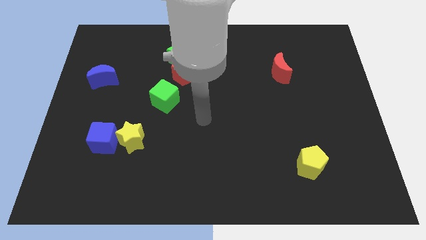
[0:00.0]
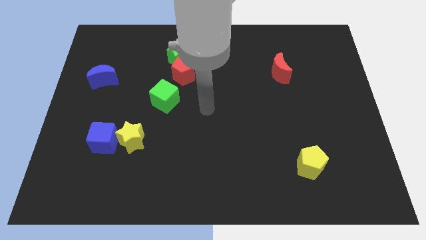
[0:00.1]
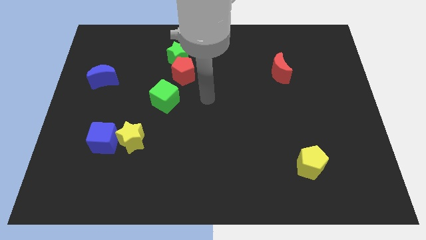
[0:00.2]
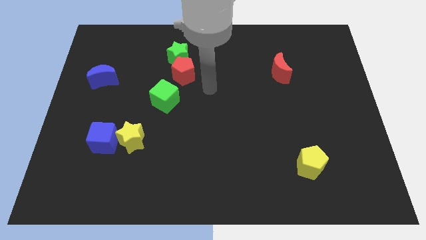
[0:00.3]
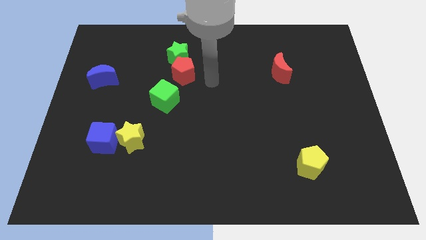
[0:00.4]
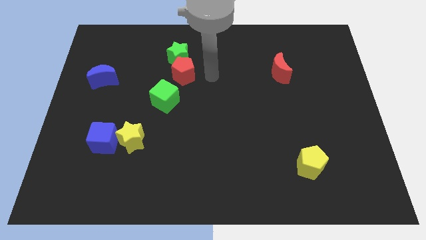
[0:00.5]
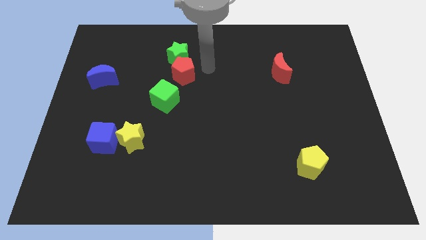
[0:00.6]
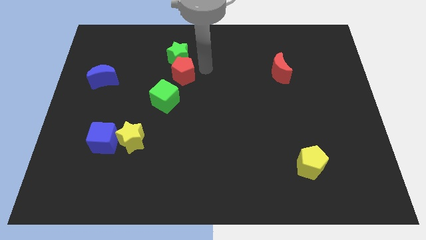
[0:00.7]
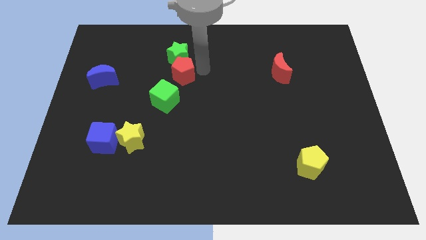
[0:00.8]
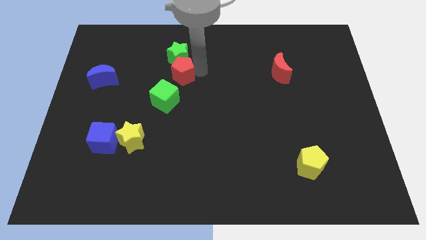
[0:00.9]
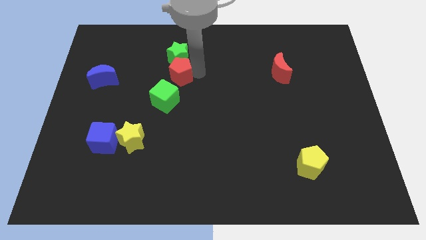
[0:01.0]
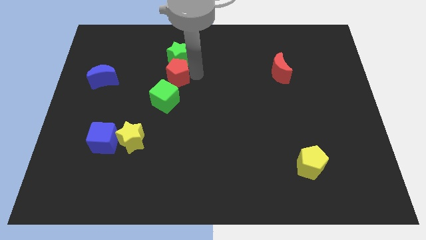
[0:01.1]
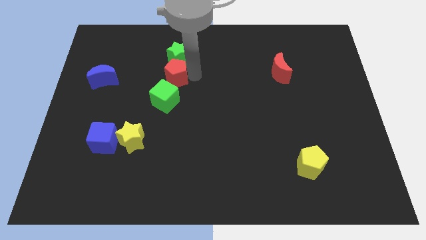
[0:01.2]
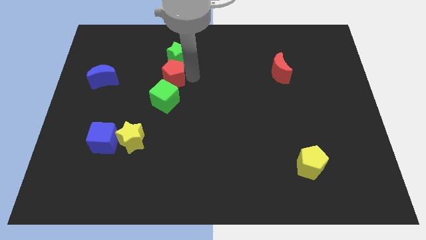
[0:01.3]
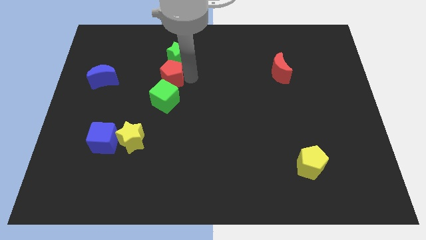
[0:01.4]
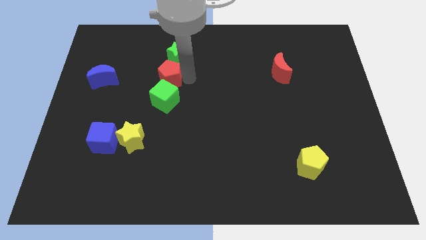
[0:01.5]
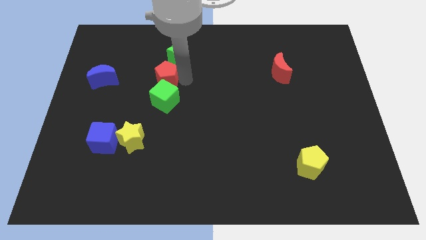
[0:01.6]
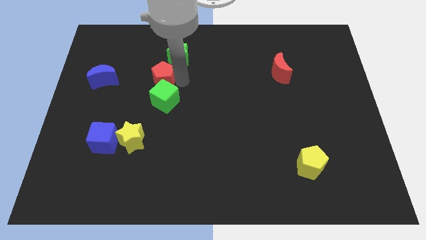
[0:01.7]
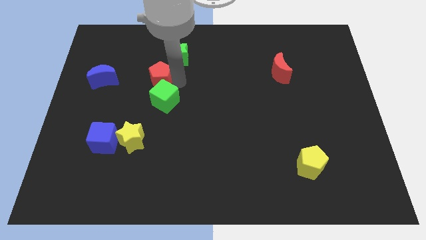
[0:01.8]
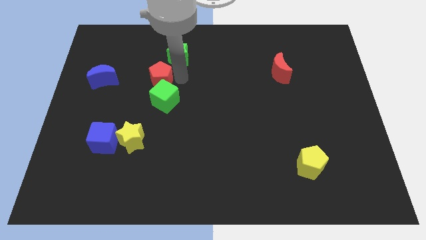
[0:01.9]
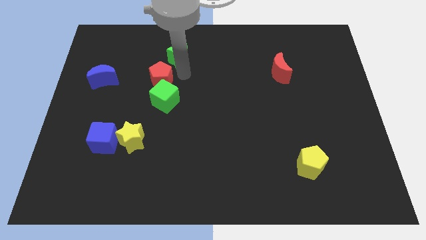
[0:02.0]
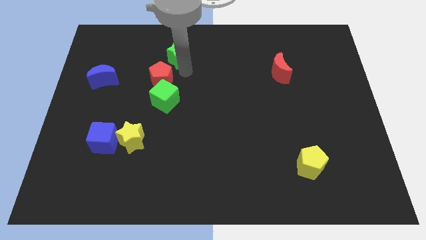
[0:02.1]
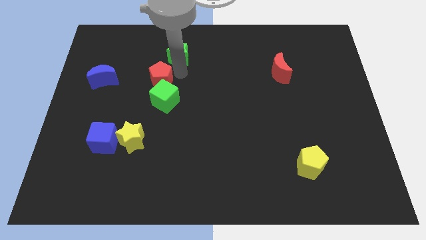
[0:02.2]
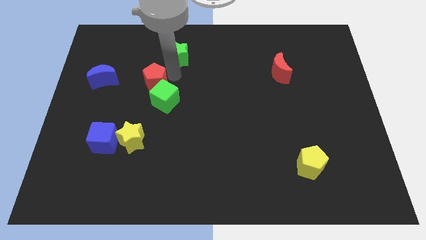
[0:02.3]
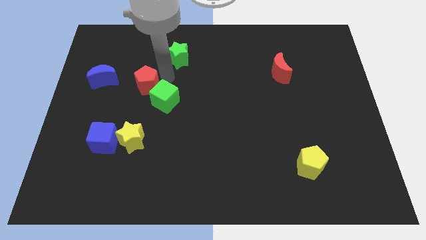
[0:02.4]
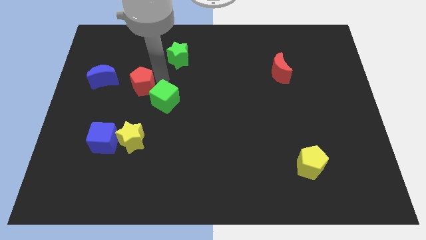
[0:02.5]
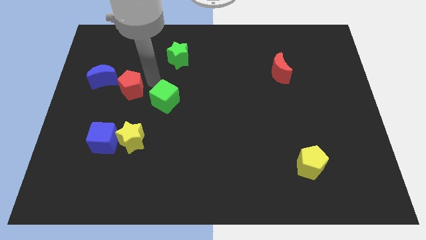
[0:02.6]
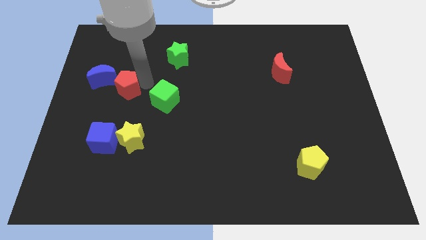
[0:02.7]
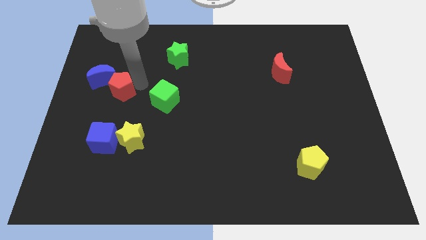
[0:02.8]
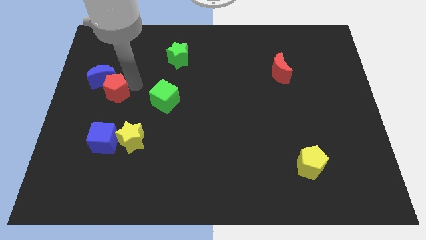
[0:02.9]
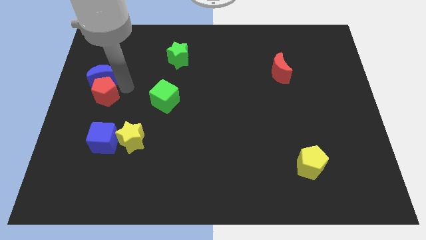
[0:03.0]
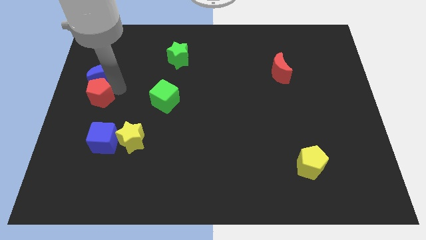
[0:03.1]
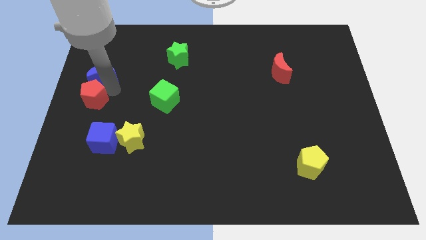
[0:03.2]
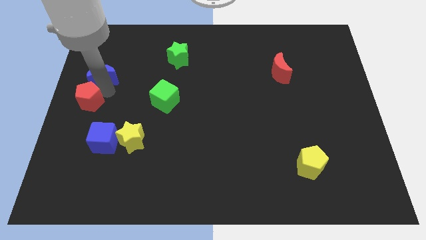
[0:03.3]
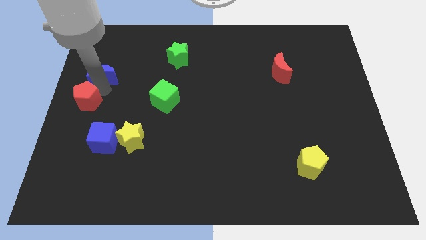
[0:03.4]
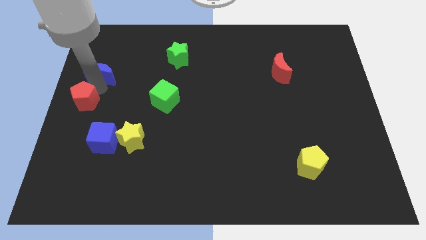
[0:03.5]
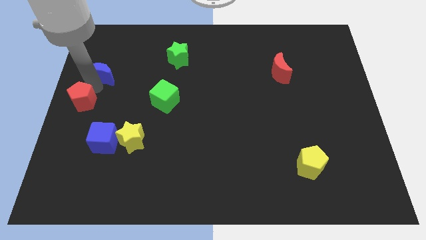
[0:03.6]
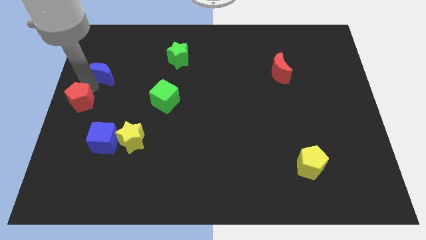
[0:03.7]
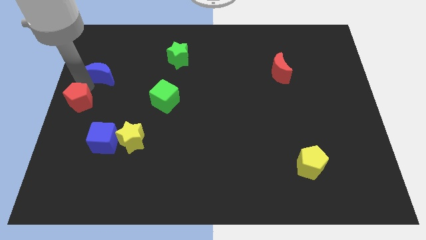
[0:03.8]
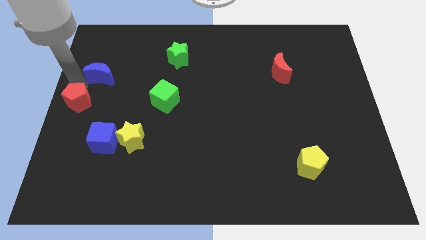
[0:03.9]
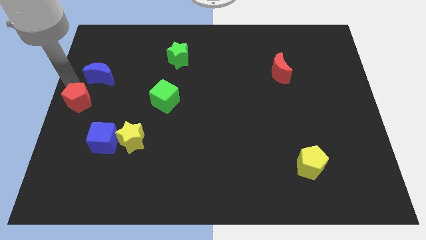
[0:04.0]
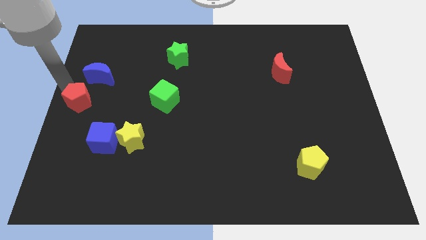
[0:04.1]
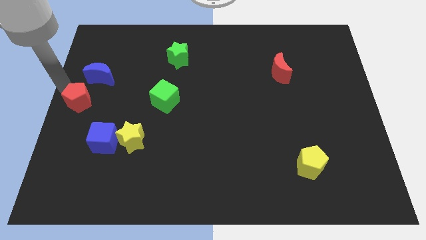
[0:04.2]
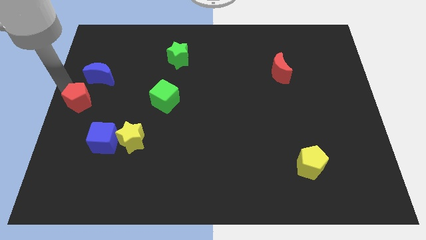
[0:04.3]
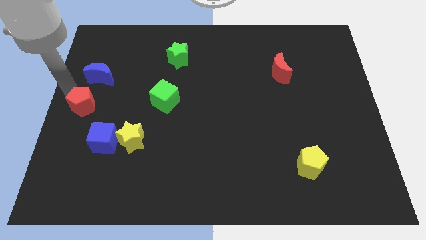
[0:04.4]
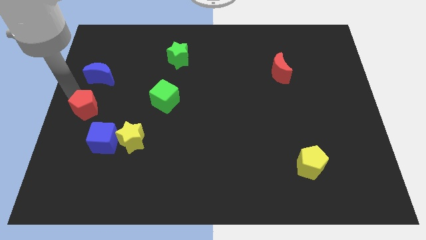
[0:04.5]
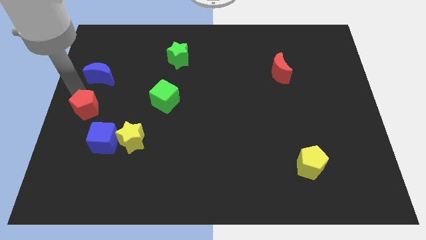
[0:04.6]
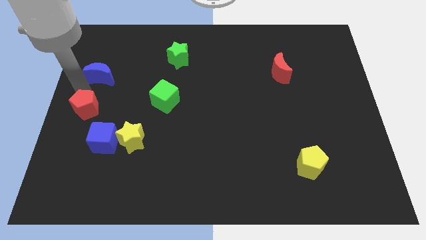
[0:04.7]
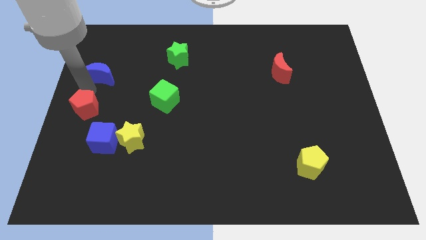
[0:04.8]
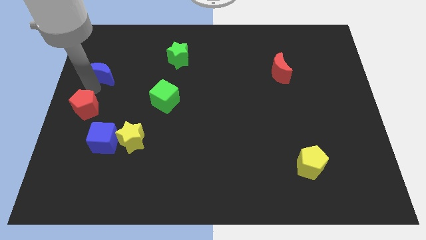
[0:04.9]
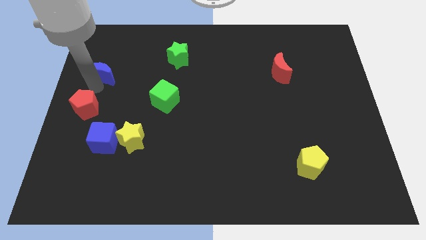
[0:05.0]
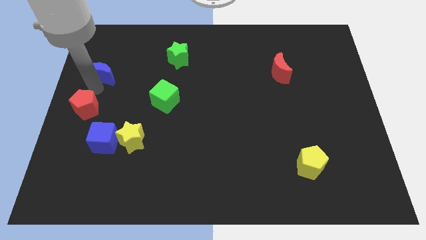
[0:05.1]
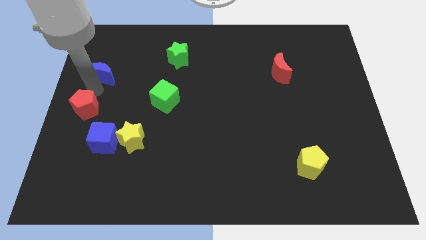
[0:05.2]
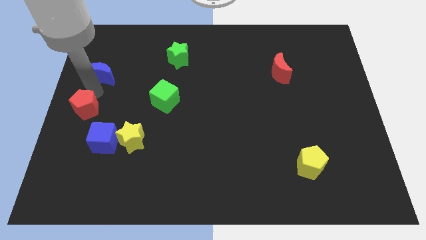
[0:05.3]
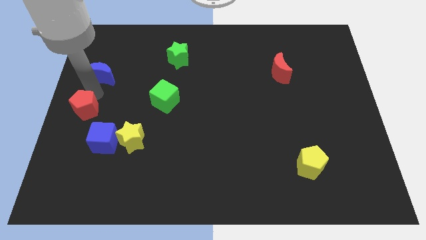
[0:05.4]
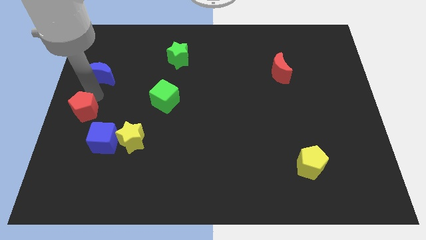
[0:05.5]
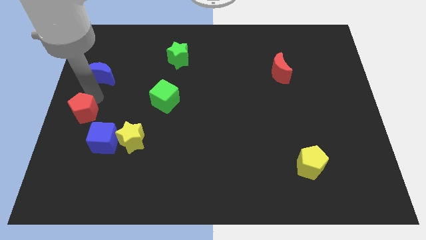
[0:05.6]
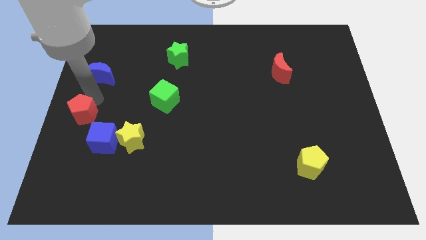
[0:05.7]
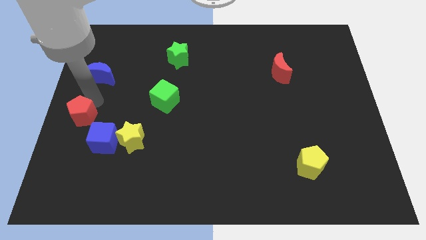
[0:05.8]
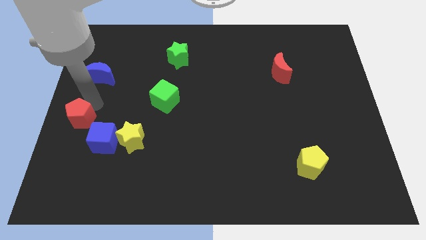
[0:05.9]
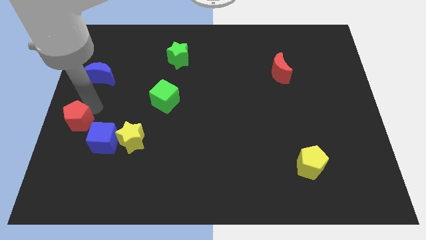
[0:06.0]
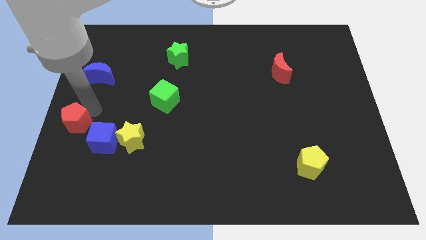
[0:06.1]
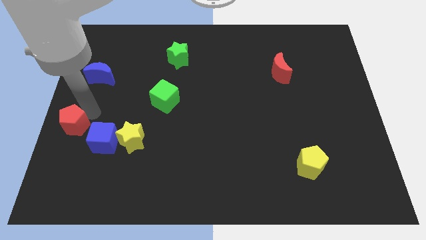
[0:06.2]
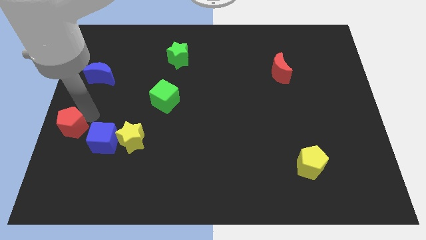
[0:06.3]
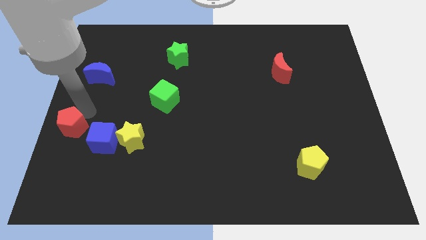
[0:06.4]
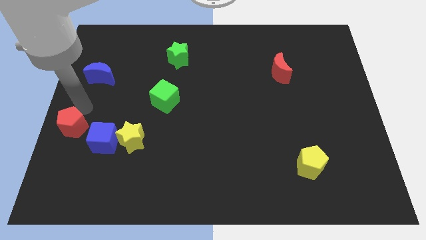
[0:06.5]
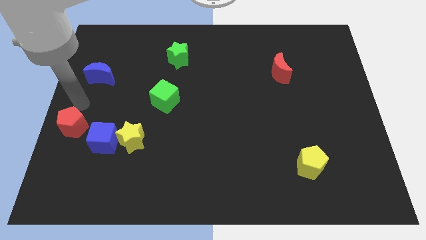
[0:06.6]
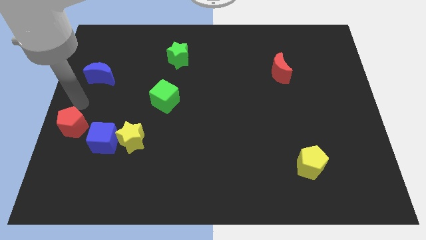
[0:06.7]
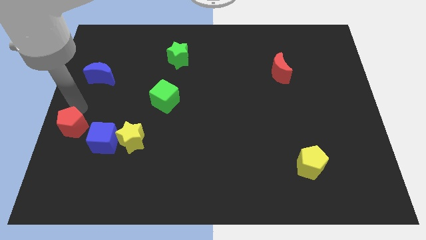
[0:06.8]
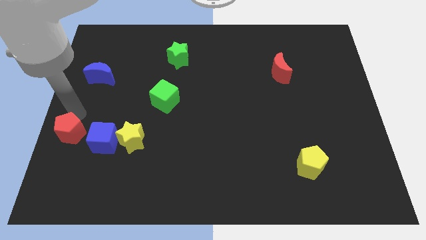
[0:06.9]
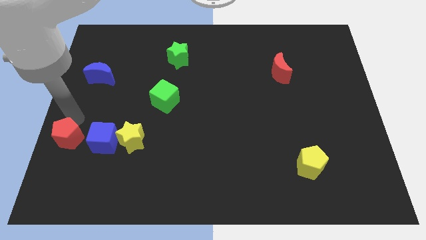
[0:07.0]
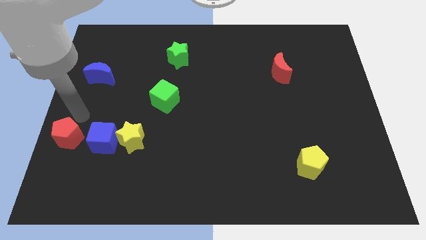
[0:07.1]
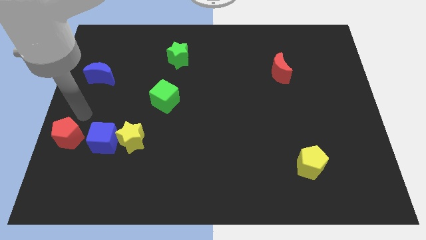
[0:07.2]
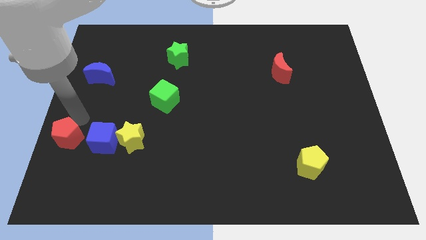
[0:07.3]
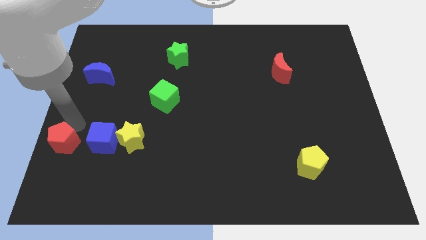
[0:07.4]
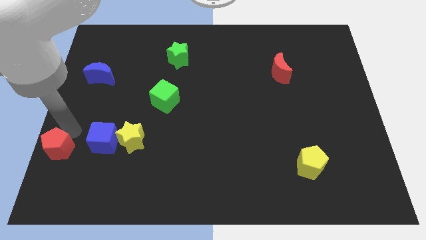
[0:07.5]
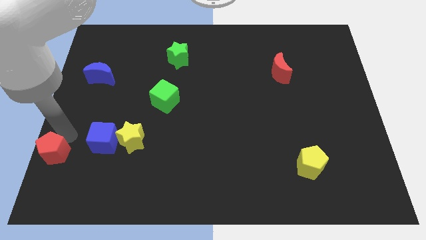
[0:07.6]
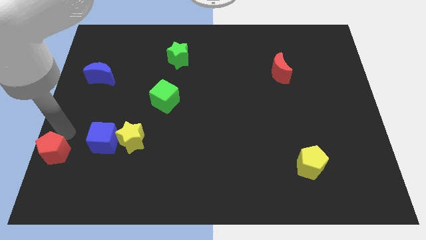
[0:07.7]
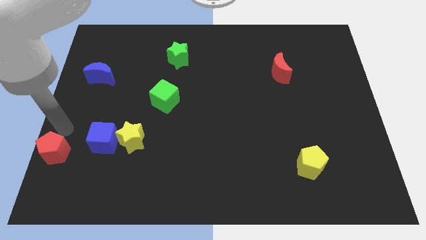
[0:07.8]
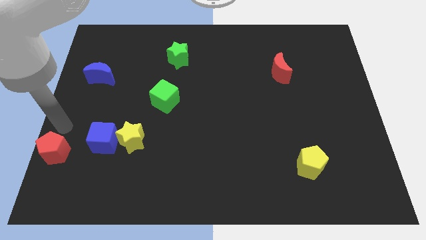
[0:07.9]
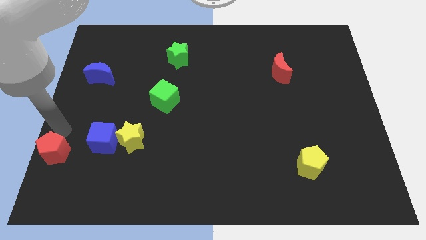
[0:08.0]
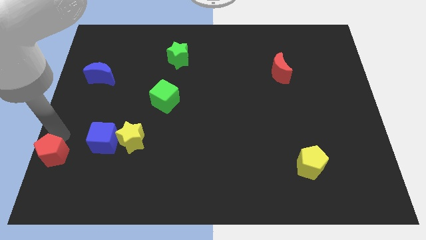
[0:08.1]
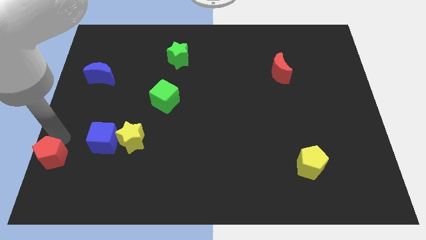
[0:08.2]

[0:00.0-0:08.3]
push the red pentagon to the lower left corner
